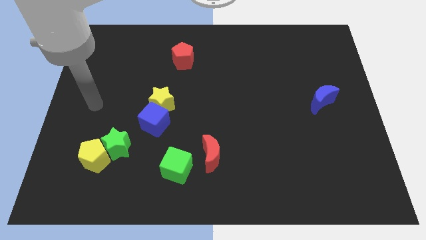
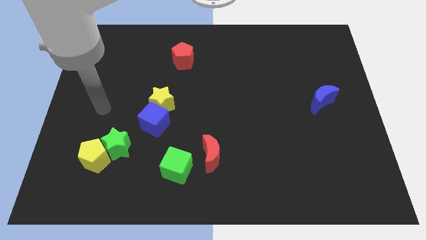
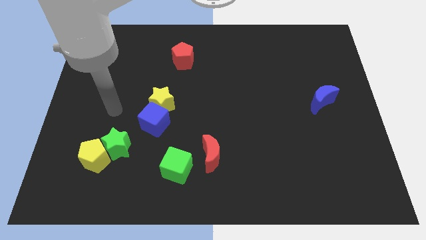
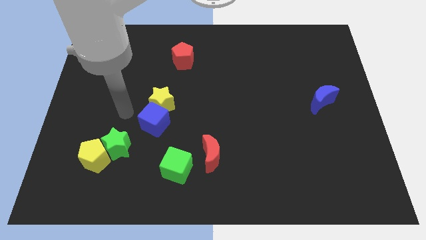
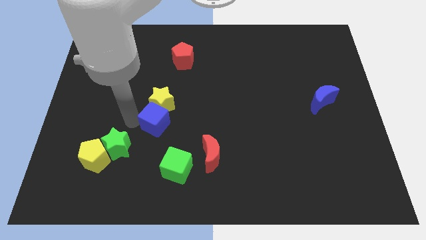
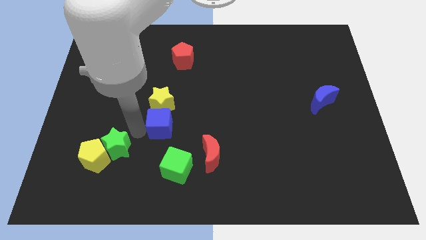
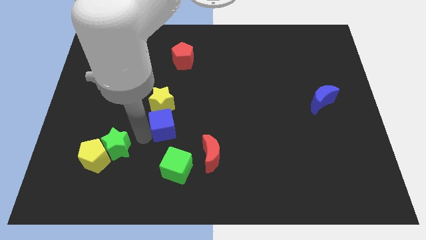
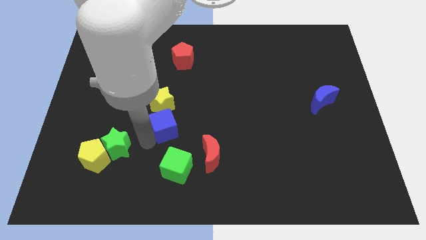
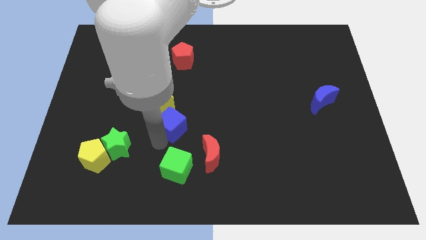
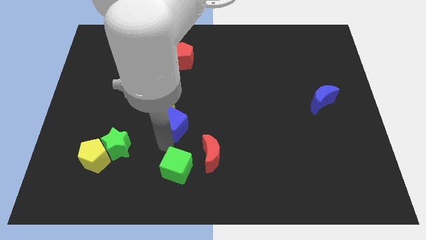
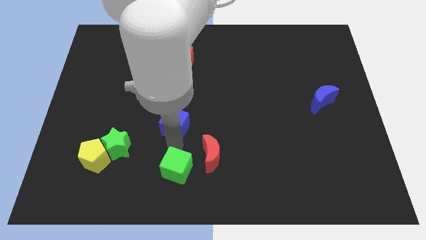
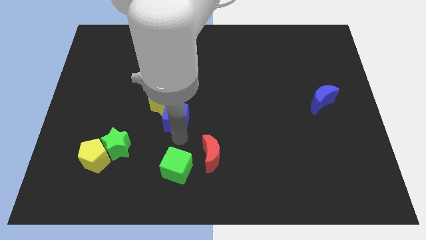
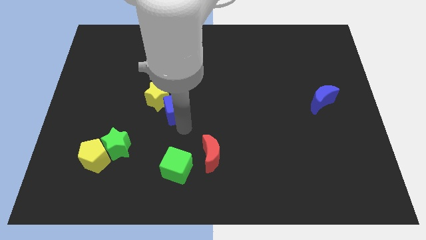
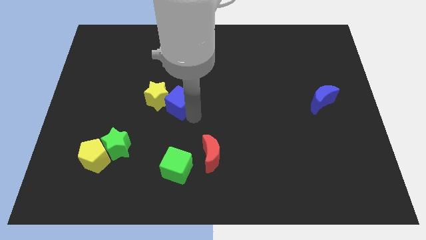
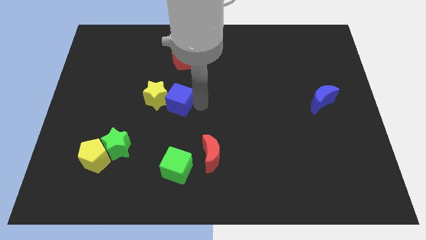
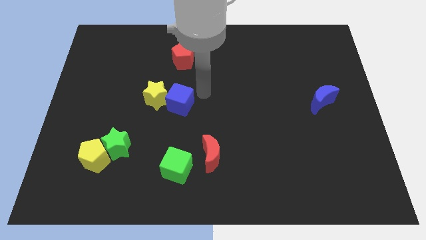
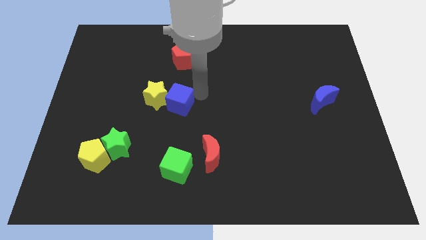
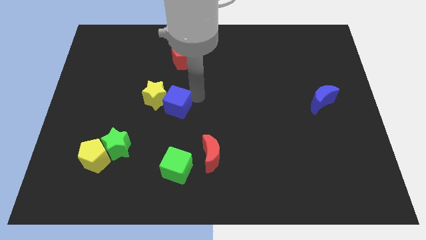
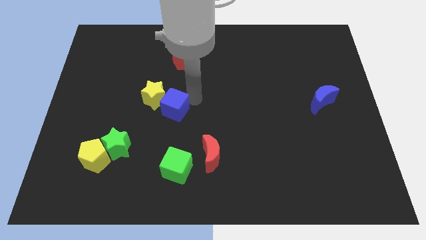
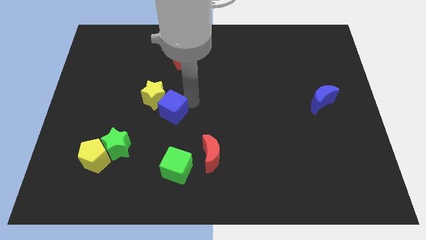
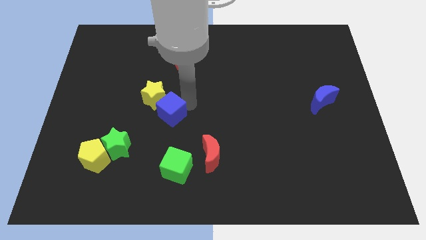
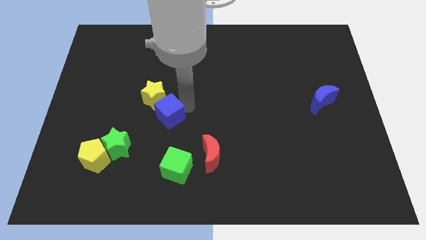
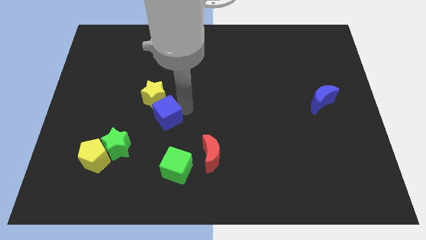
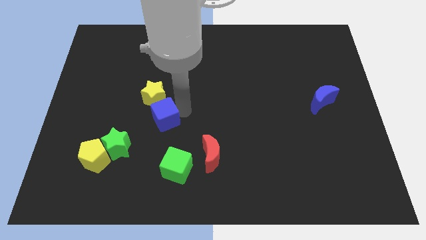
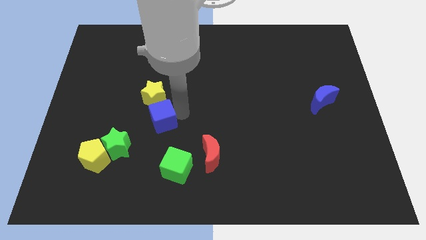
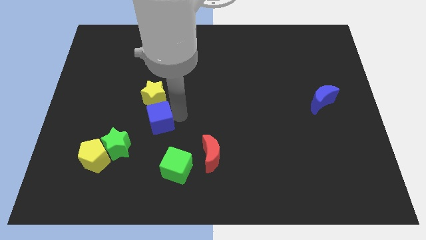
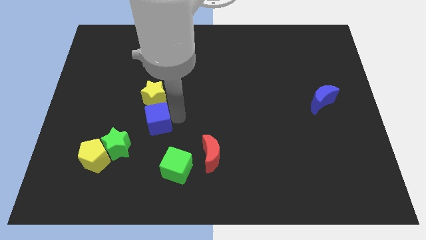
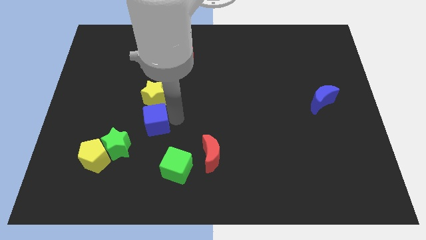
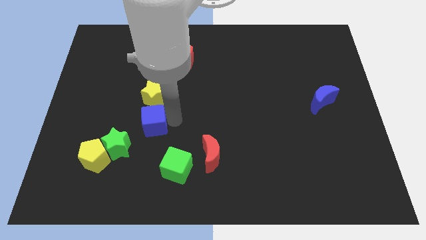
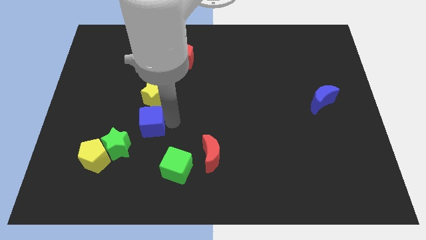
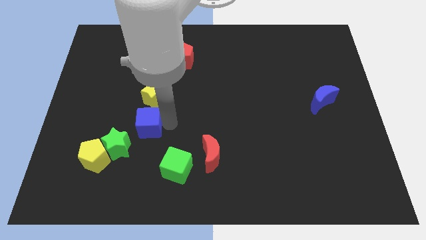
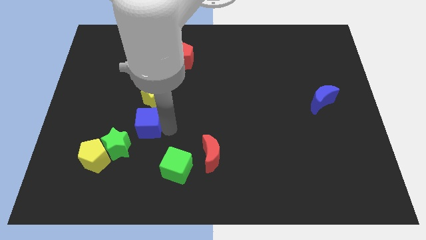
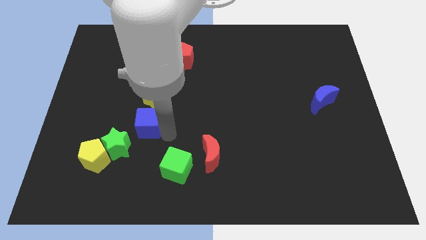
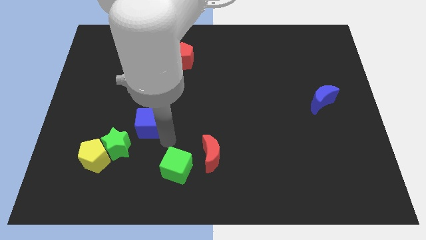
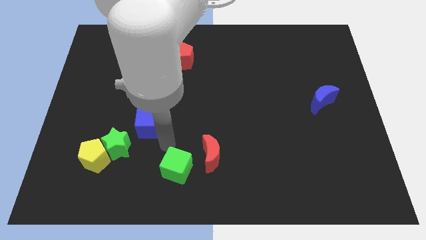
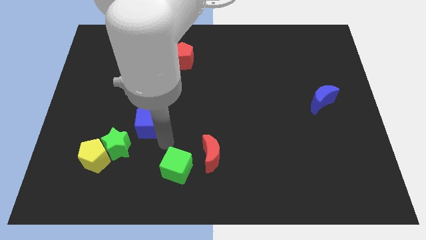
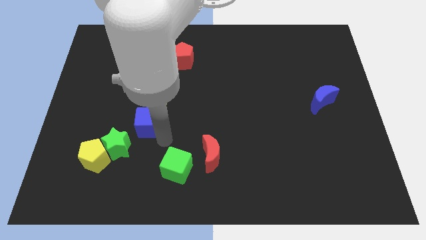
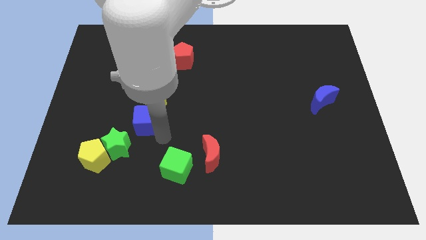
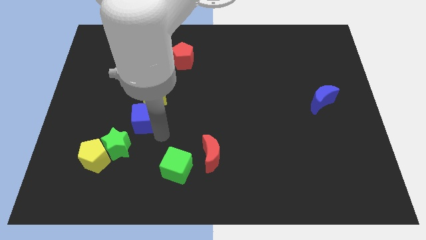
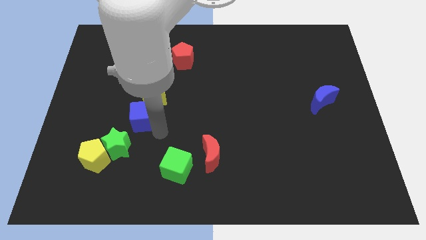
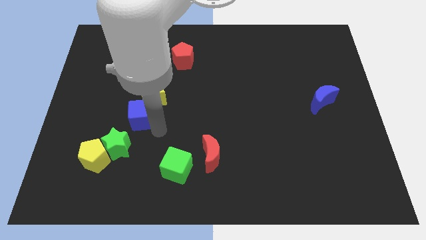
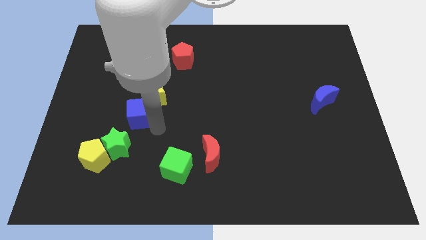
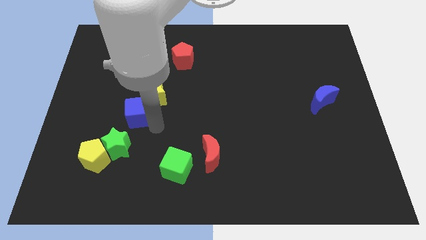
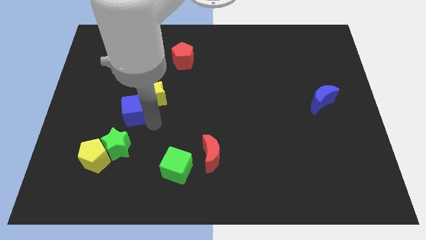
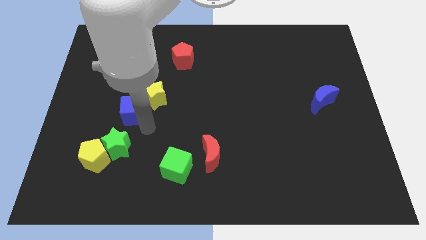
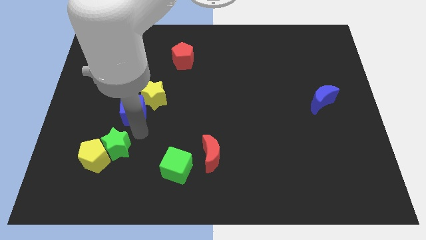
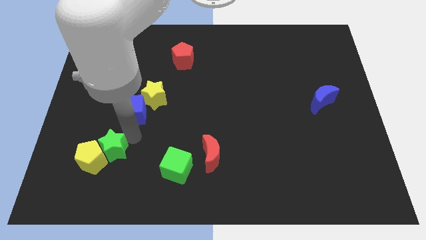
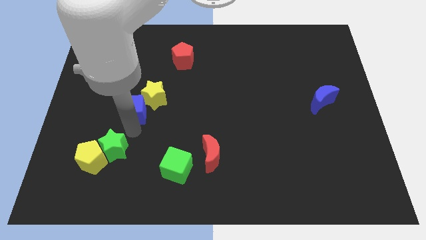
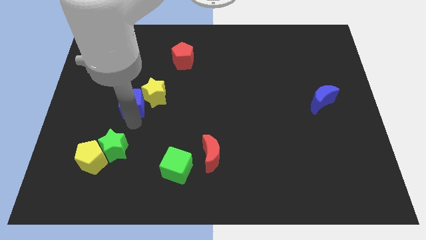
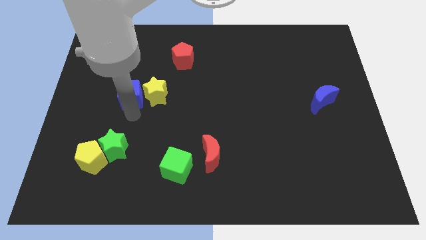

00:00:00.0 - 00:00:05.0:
put the blue cube to the top left side of the yellow star

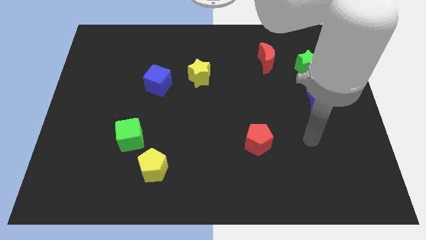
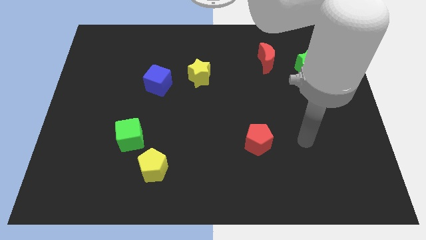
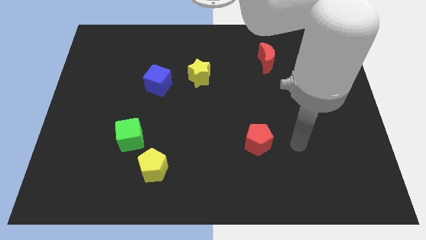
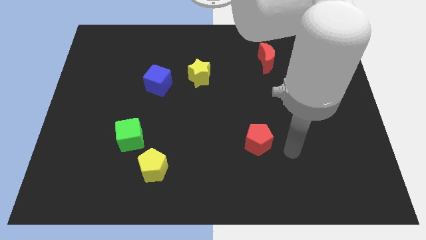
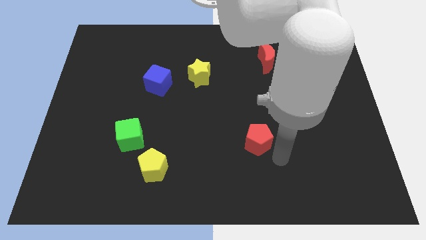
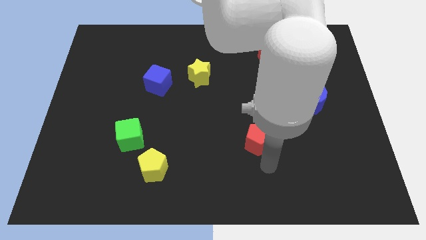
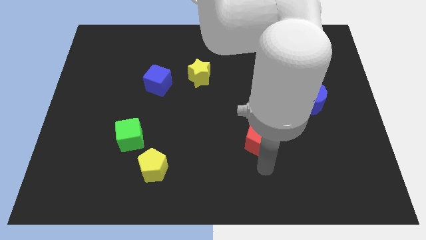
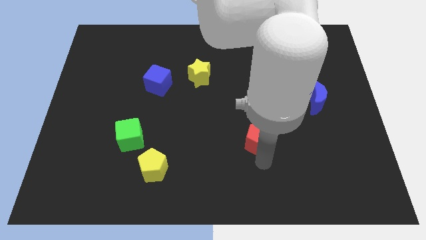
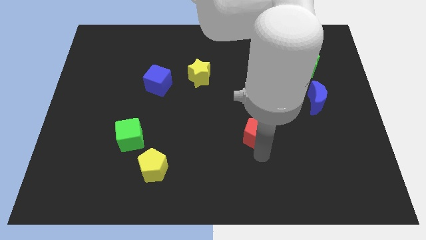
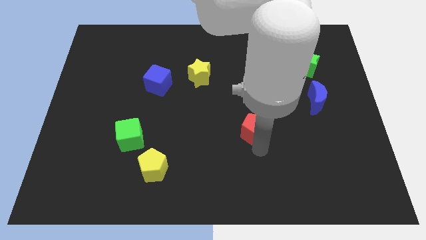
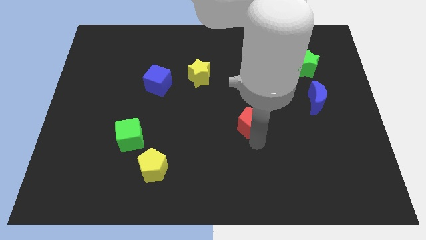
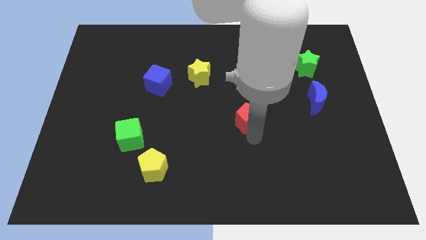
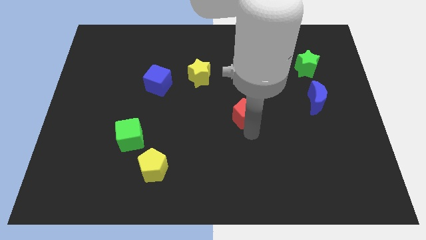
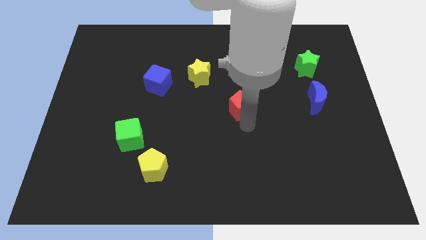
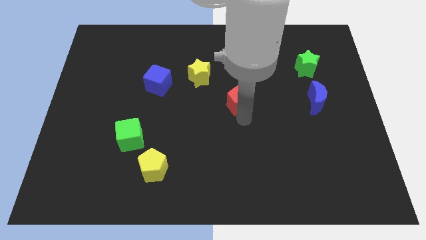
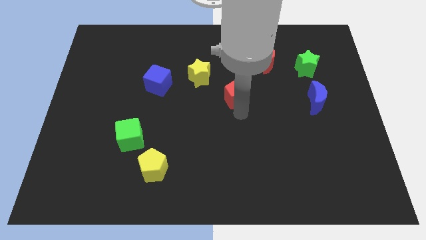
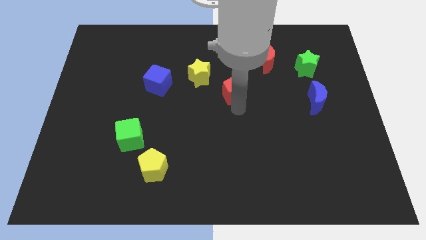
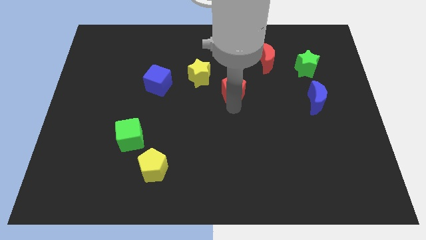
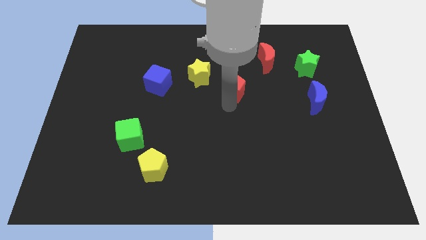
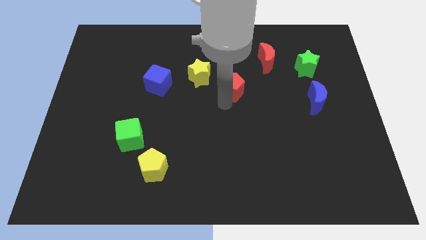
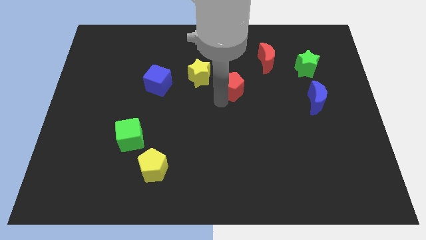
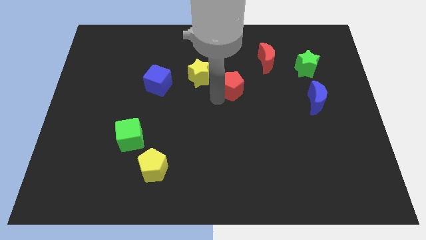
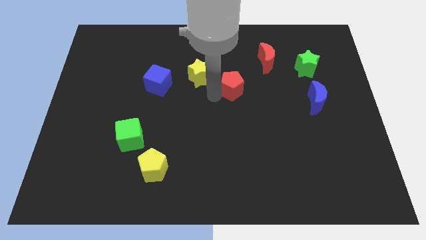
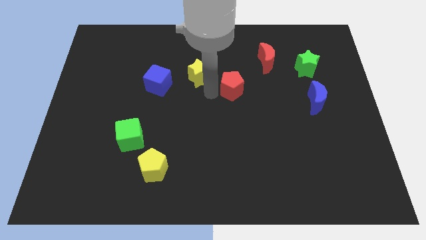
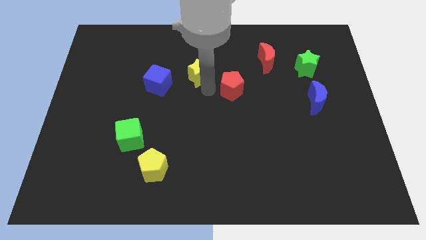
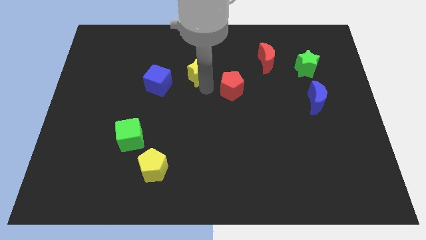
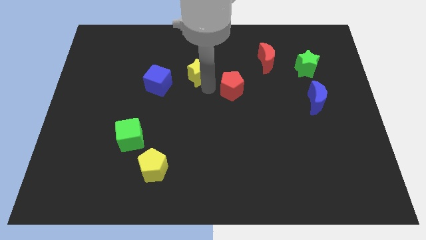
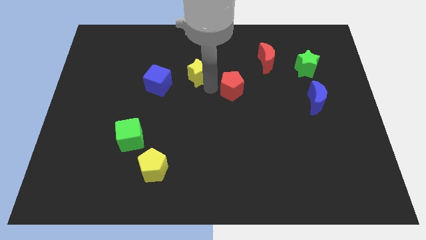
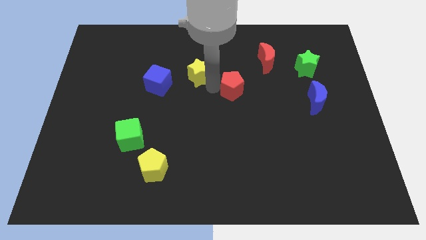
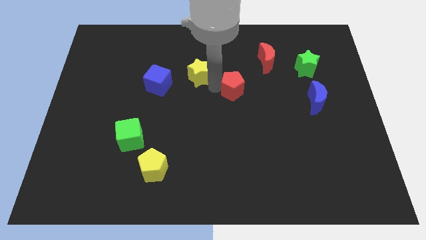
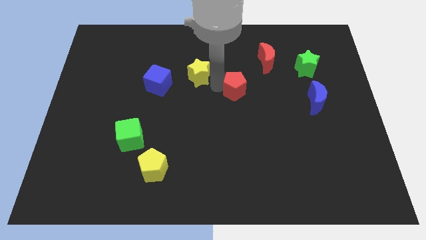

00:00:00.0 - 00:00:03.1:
put the red pentagon to the bottom left of the red moon
